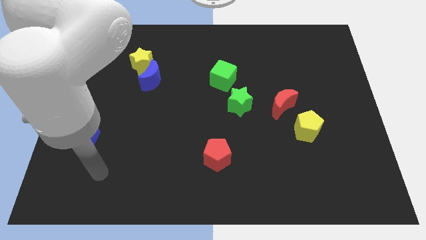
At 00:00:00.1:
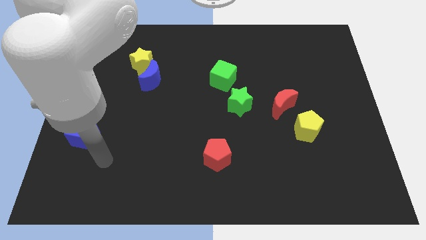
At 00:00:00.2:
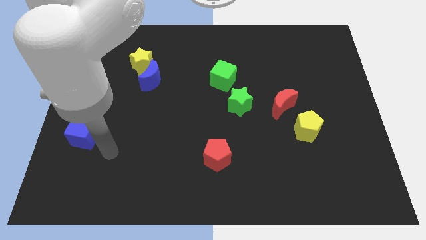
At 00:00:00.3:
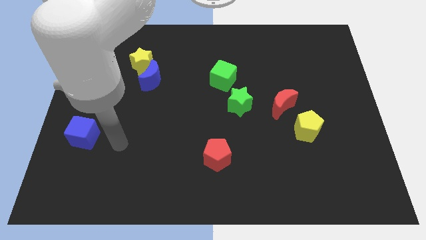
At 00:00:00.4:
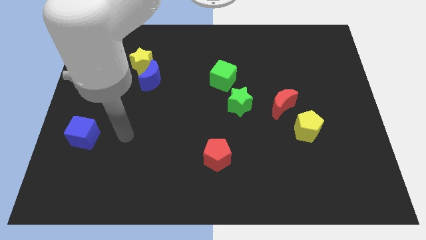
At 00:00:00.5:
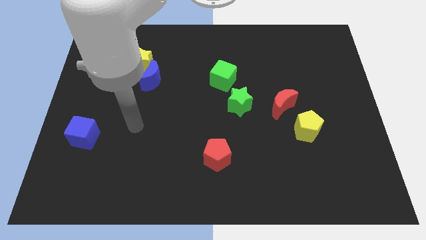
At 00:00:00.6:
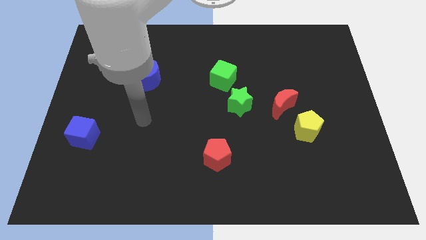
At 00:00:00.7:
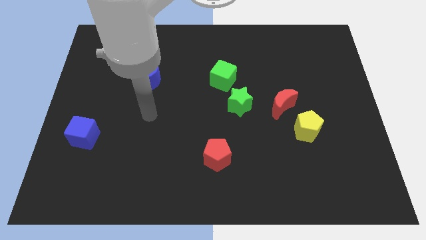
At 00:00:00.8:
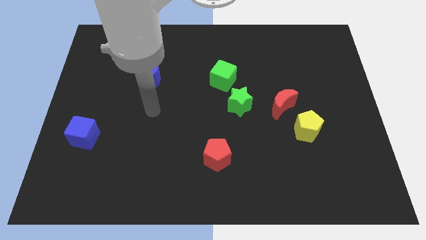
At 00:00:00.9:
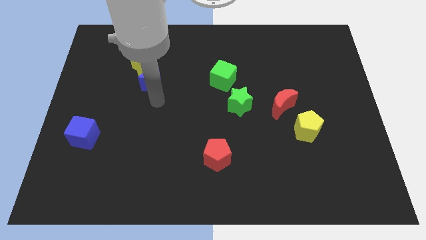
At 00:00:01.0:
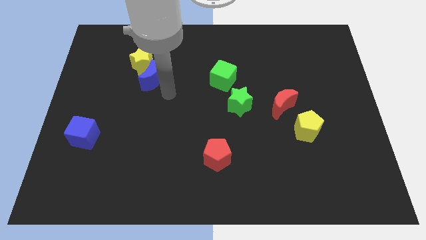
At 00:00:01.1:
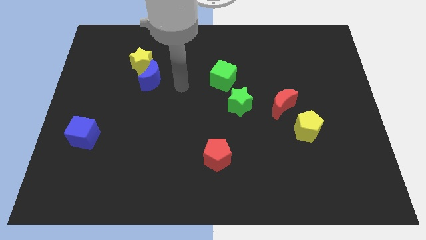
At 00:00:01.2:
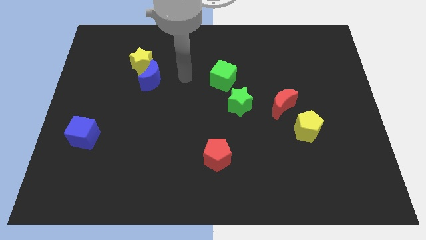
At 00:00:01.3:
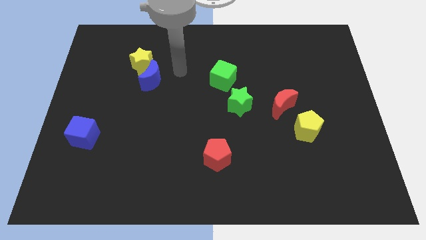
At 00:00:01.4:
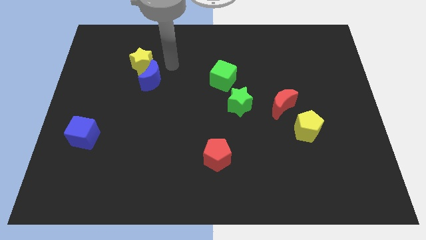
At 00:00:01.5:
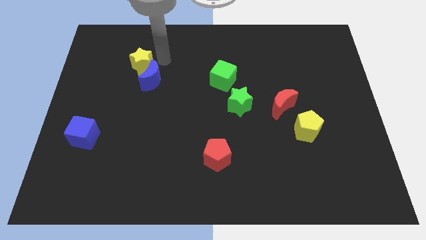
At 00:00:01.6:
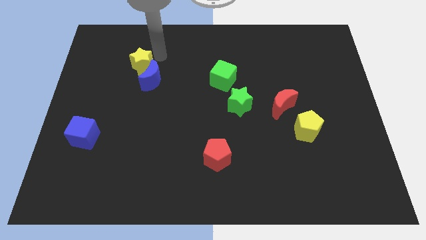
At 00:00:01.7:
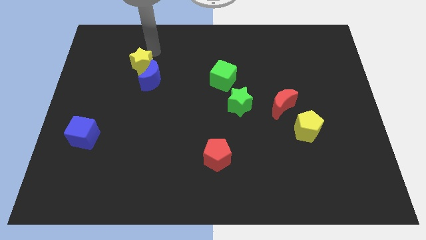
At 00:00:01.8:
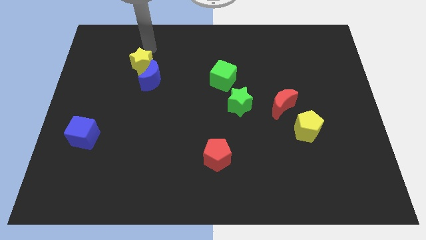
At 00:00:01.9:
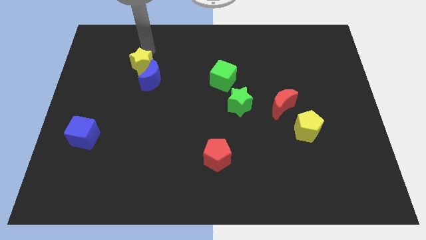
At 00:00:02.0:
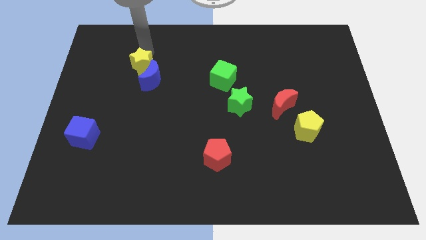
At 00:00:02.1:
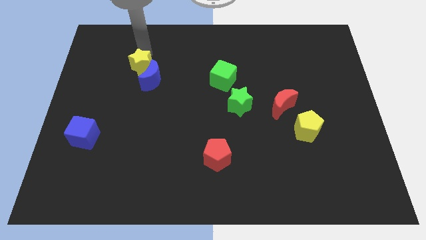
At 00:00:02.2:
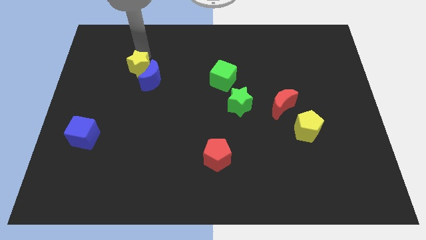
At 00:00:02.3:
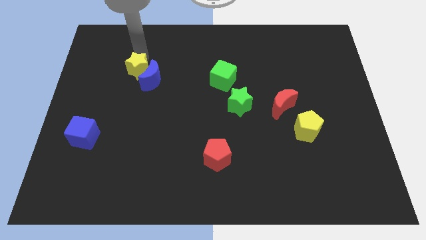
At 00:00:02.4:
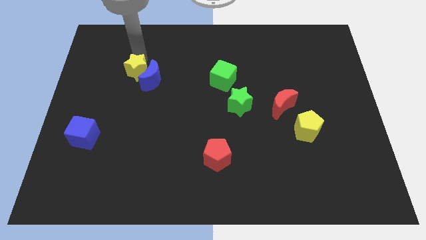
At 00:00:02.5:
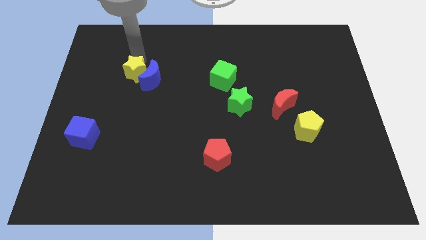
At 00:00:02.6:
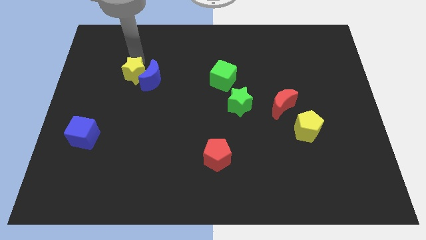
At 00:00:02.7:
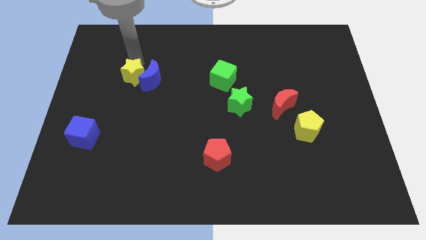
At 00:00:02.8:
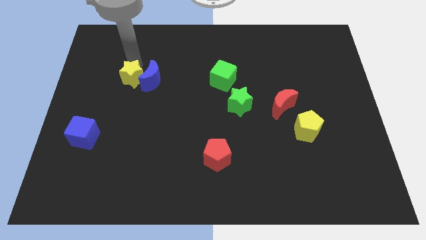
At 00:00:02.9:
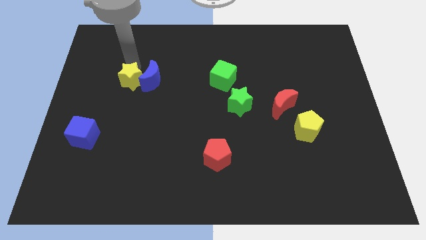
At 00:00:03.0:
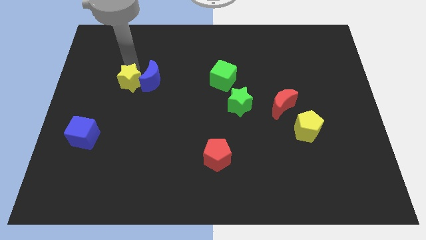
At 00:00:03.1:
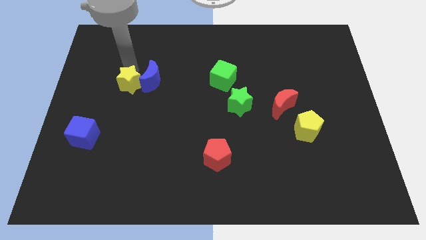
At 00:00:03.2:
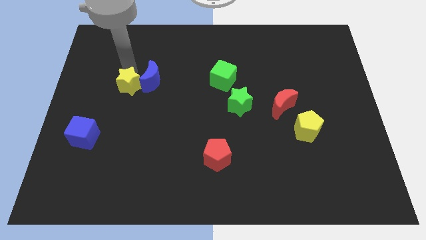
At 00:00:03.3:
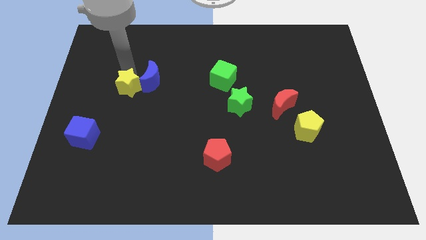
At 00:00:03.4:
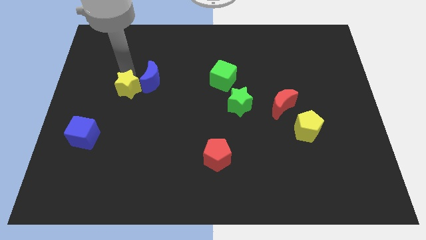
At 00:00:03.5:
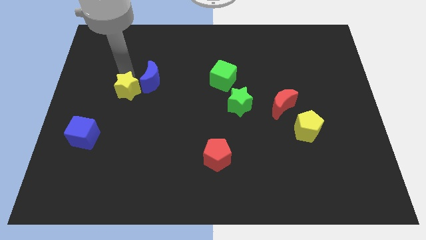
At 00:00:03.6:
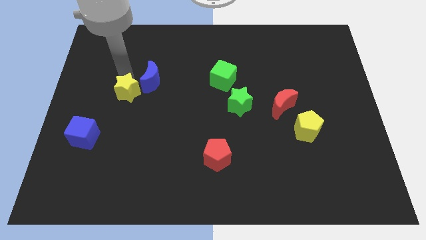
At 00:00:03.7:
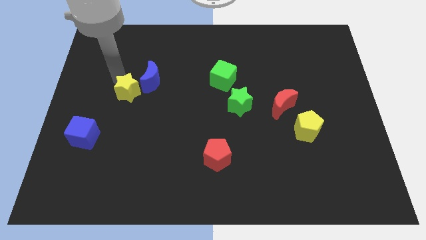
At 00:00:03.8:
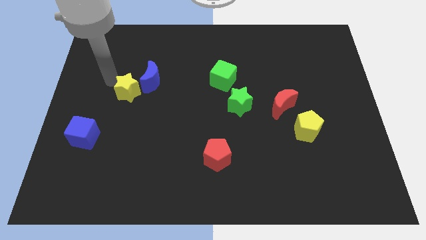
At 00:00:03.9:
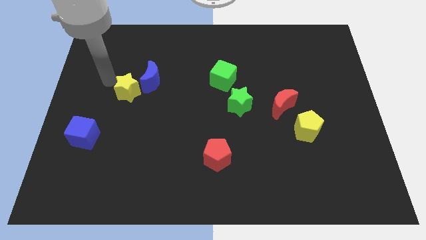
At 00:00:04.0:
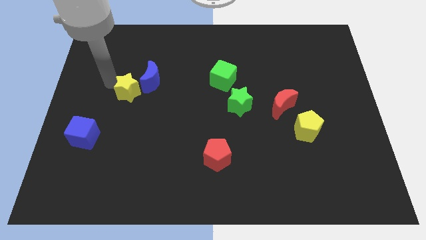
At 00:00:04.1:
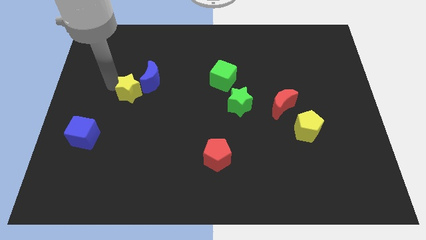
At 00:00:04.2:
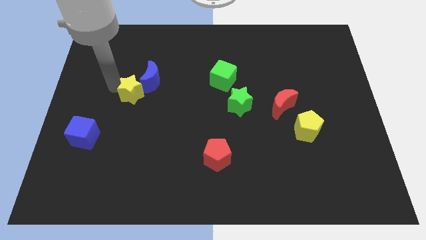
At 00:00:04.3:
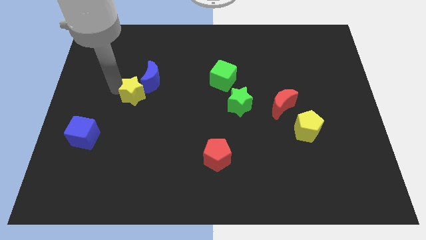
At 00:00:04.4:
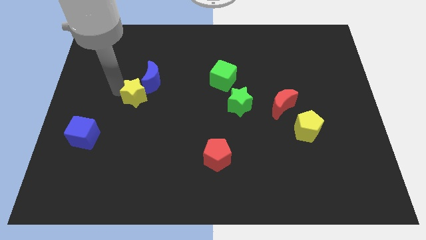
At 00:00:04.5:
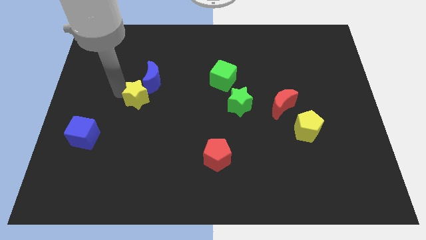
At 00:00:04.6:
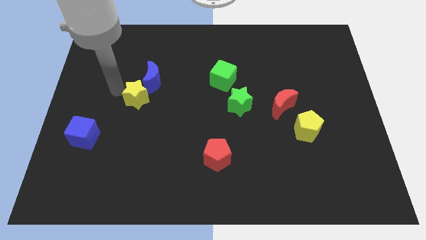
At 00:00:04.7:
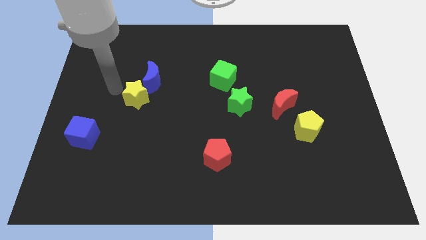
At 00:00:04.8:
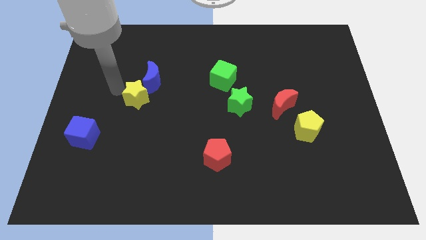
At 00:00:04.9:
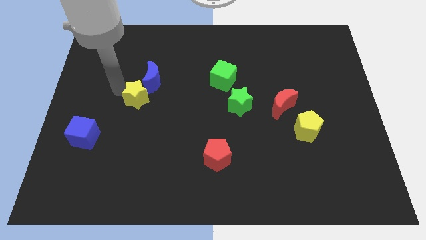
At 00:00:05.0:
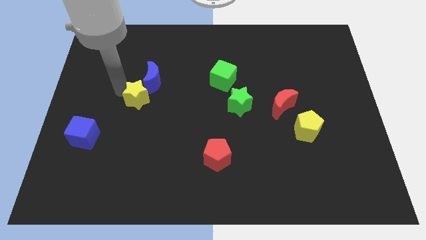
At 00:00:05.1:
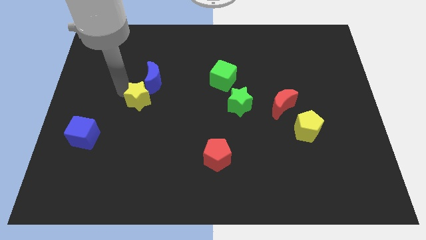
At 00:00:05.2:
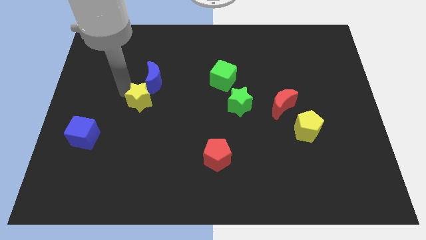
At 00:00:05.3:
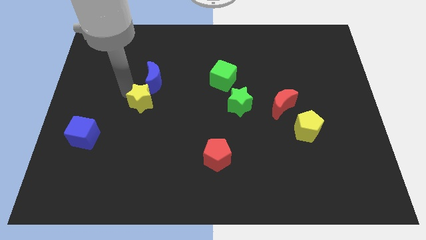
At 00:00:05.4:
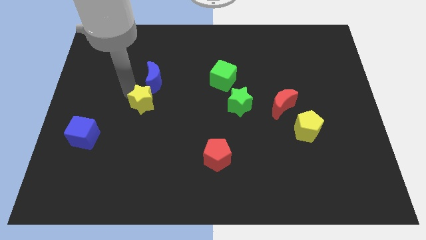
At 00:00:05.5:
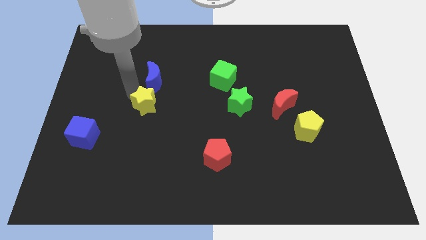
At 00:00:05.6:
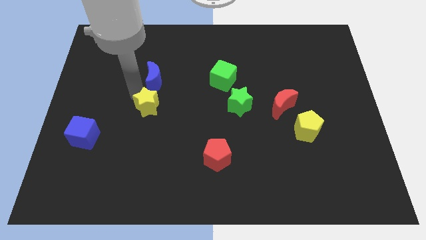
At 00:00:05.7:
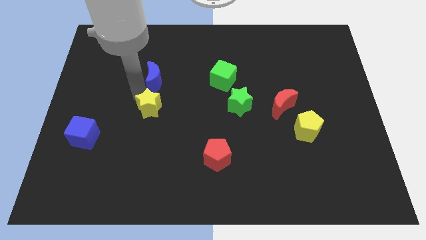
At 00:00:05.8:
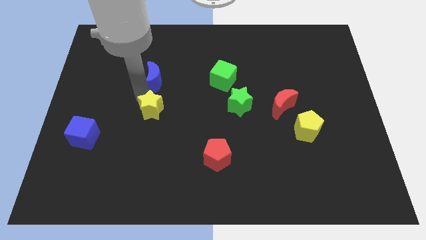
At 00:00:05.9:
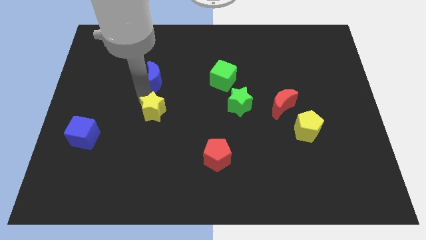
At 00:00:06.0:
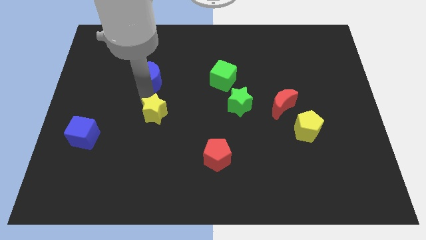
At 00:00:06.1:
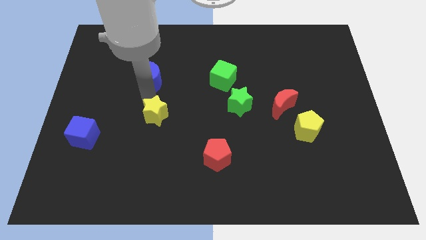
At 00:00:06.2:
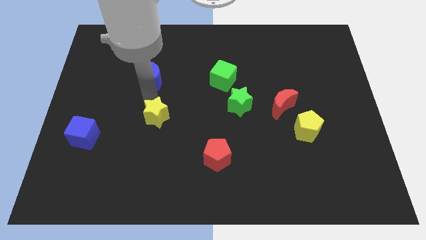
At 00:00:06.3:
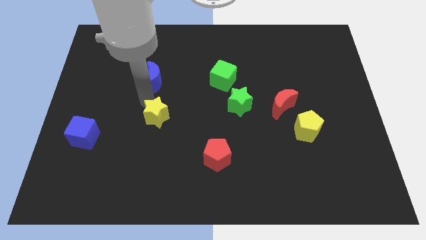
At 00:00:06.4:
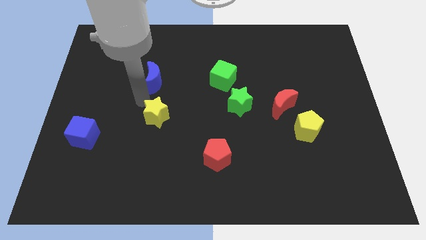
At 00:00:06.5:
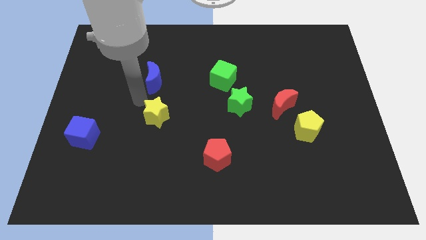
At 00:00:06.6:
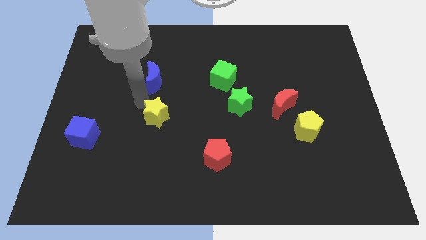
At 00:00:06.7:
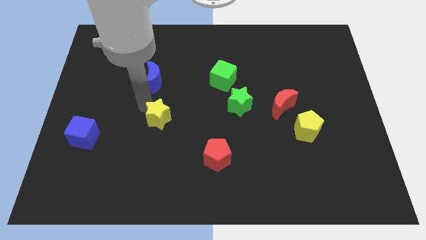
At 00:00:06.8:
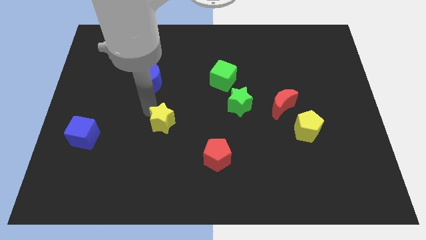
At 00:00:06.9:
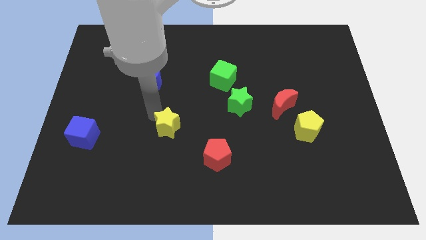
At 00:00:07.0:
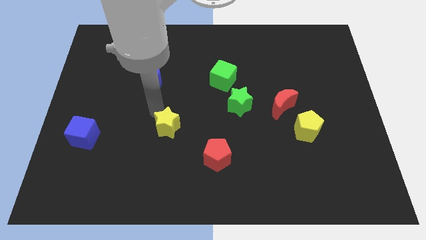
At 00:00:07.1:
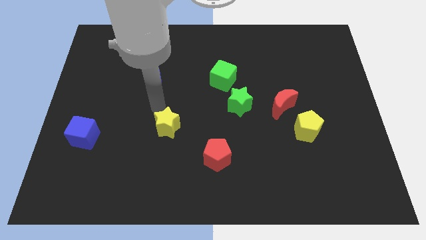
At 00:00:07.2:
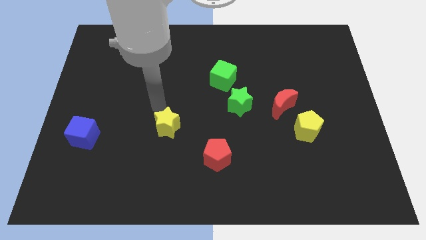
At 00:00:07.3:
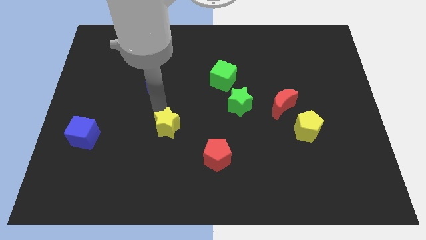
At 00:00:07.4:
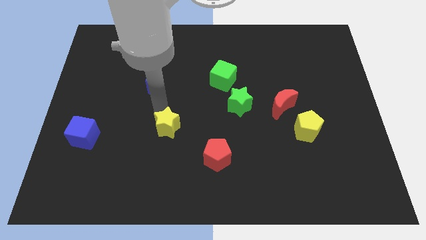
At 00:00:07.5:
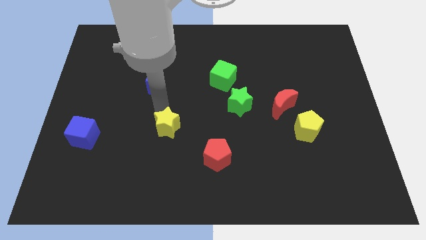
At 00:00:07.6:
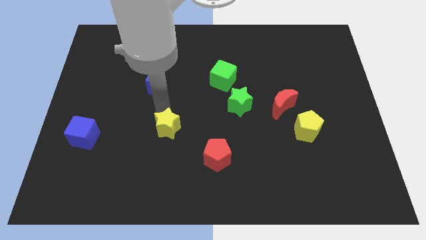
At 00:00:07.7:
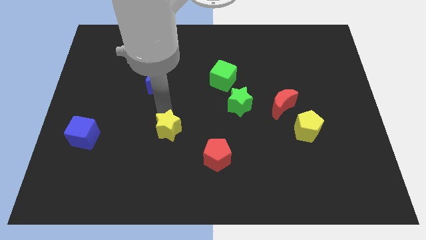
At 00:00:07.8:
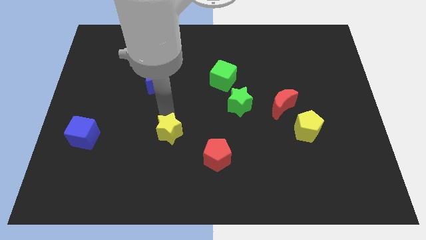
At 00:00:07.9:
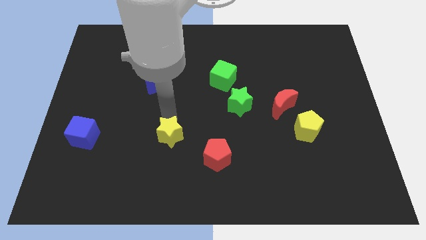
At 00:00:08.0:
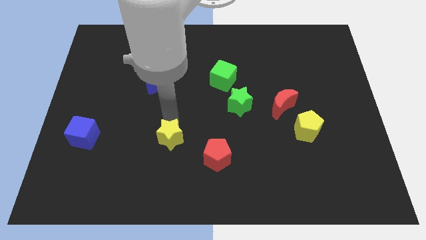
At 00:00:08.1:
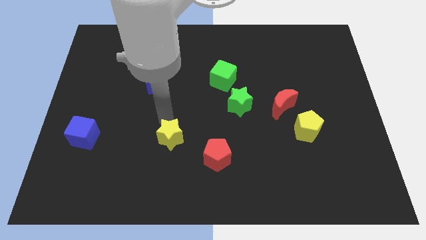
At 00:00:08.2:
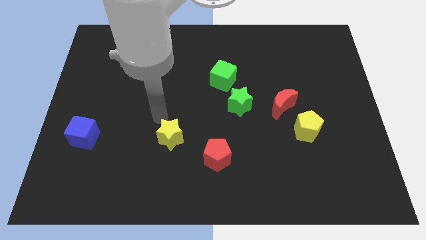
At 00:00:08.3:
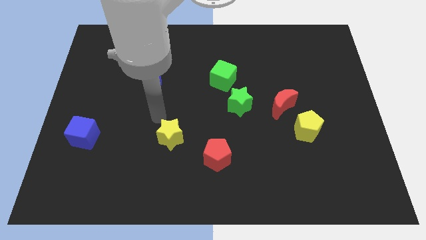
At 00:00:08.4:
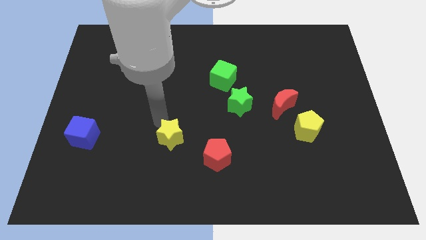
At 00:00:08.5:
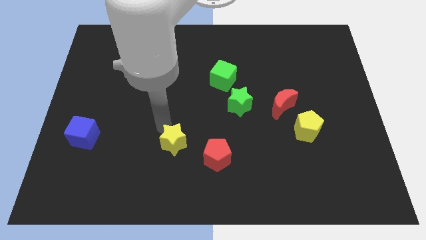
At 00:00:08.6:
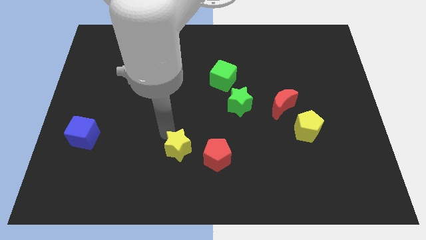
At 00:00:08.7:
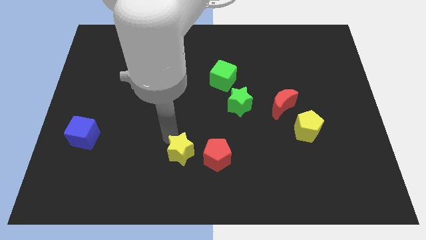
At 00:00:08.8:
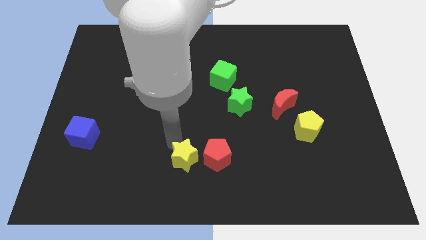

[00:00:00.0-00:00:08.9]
put the yellow star to the bottom side
